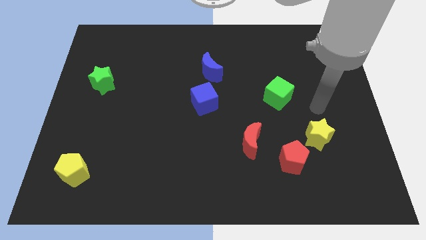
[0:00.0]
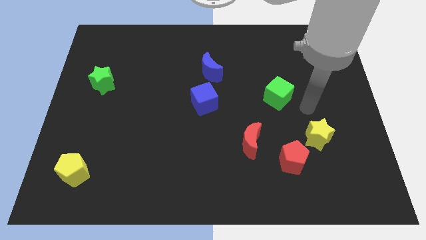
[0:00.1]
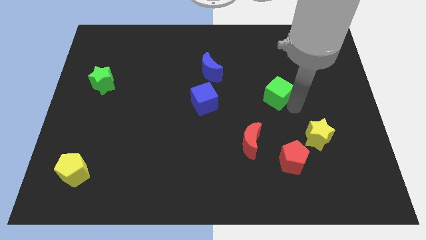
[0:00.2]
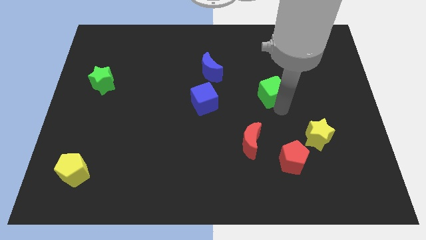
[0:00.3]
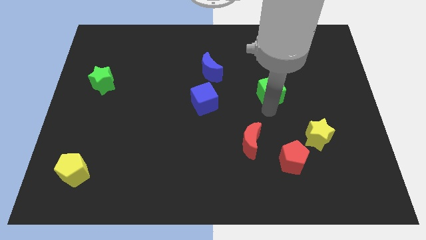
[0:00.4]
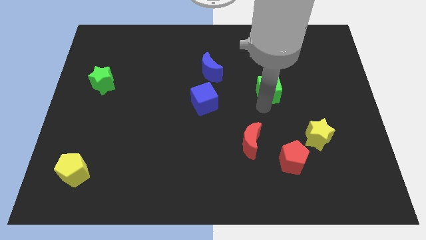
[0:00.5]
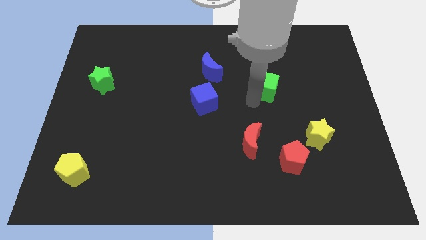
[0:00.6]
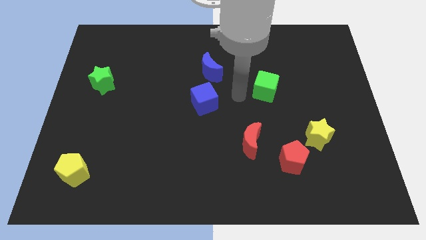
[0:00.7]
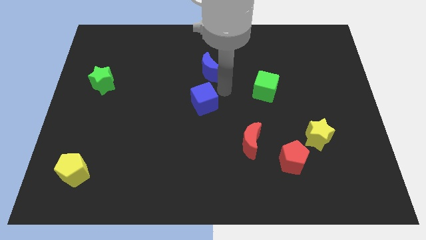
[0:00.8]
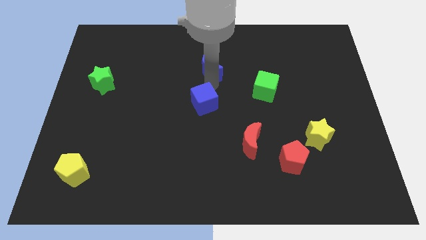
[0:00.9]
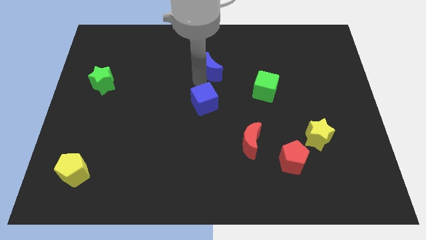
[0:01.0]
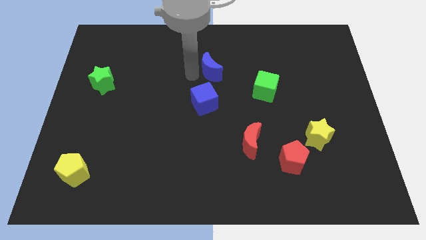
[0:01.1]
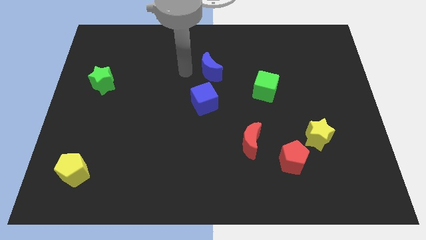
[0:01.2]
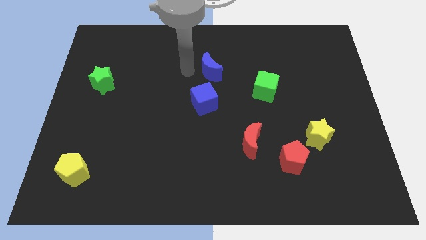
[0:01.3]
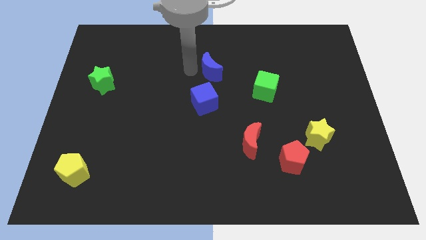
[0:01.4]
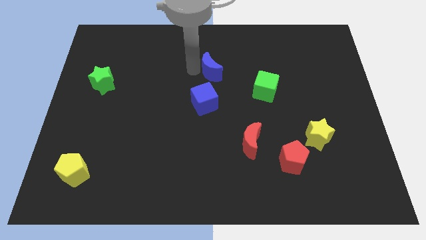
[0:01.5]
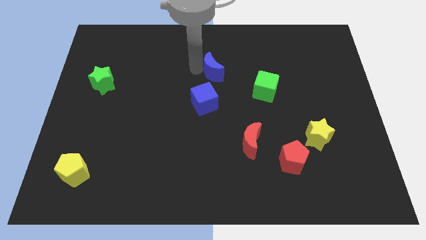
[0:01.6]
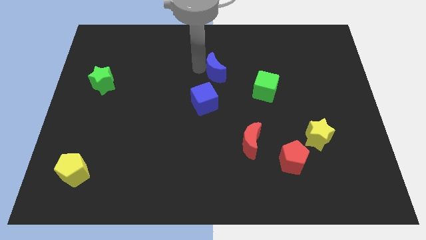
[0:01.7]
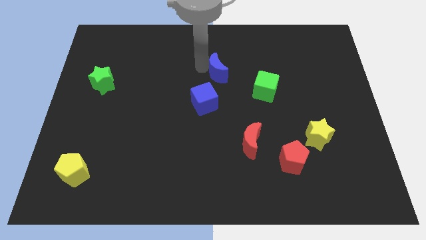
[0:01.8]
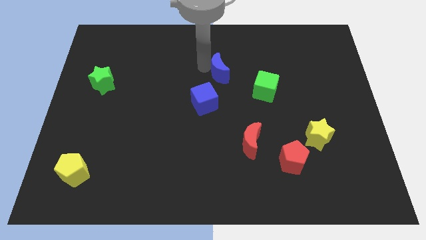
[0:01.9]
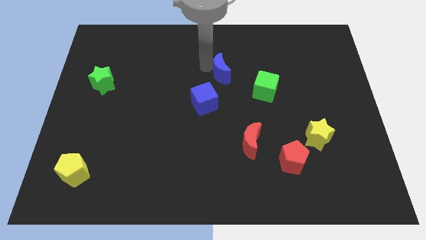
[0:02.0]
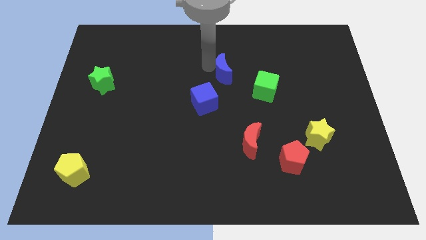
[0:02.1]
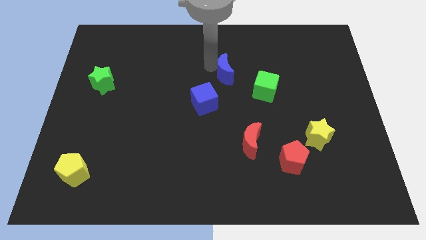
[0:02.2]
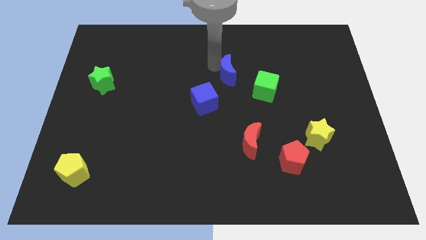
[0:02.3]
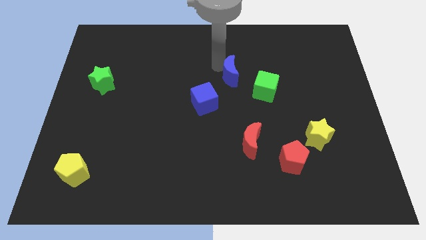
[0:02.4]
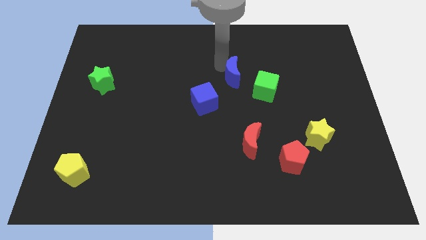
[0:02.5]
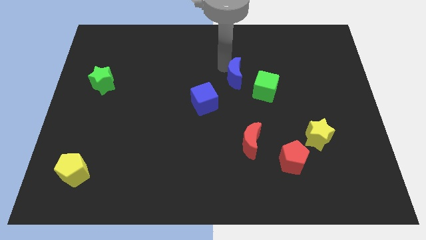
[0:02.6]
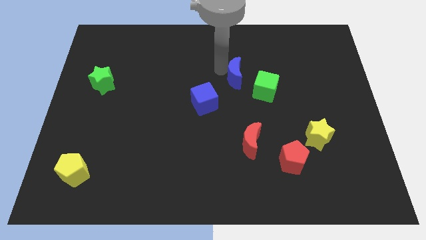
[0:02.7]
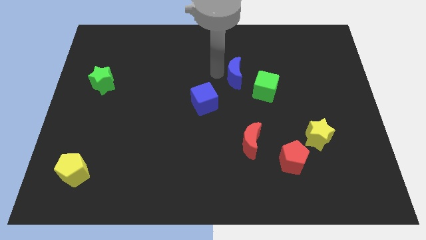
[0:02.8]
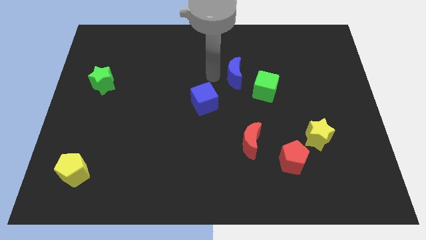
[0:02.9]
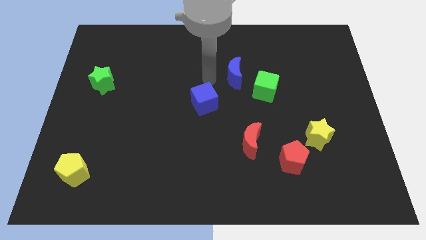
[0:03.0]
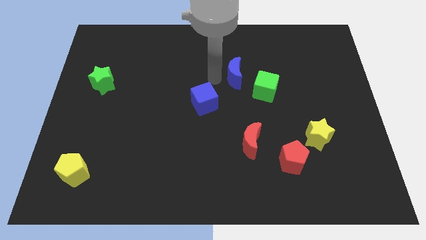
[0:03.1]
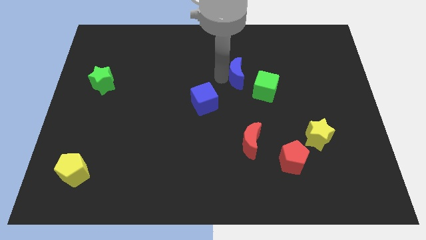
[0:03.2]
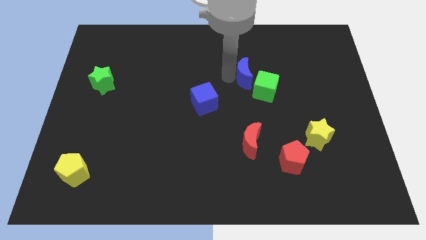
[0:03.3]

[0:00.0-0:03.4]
slightly move the blue moon to the right

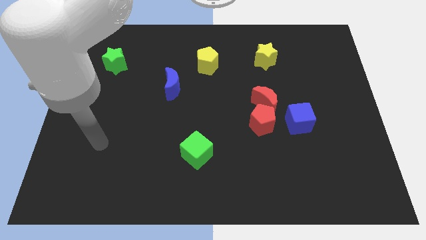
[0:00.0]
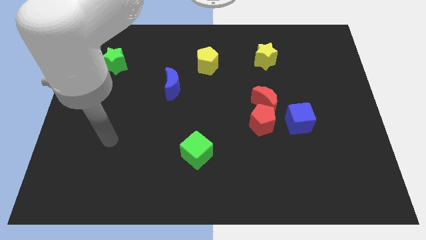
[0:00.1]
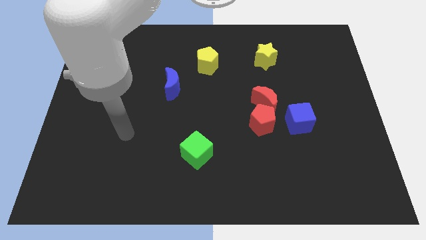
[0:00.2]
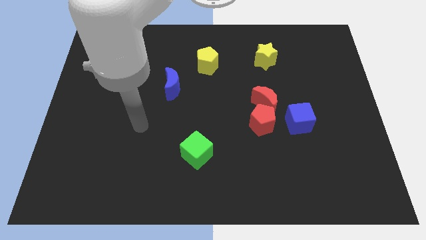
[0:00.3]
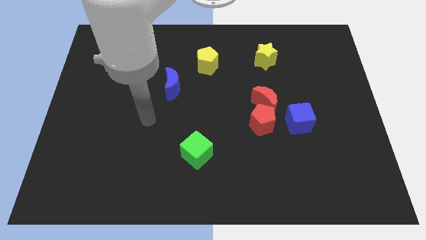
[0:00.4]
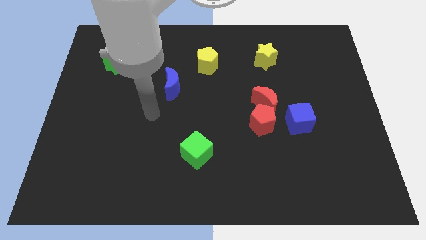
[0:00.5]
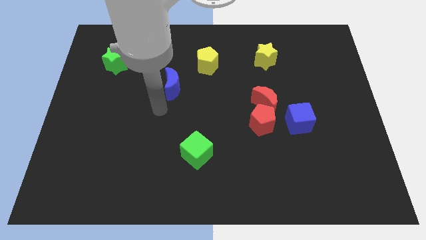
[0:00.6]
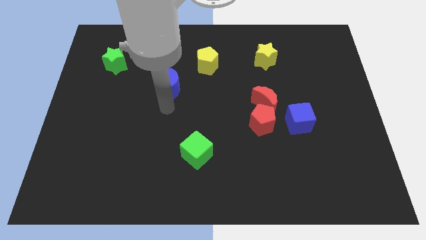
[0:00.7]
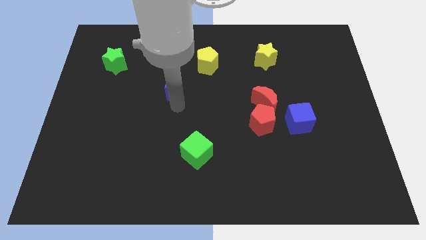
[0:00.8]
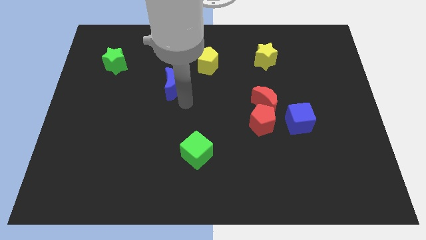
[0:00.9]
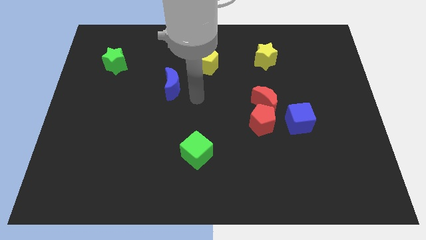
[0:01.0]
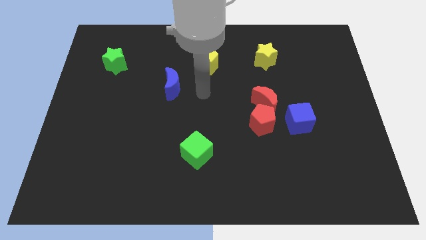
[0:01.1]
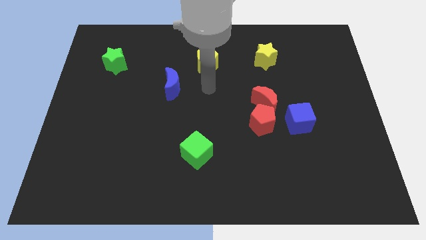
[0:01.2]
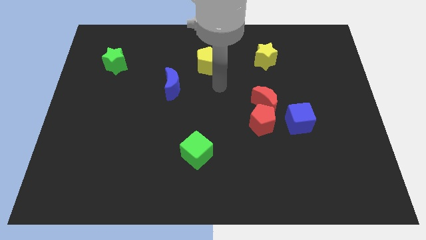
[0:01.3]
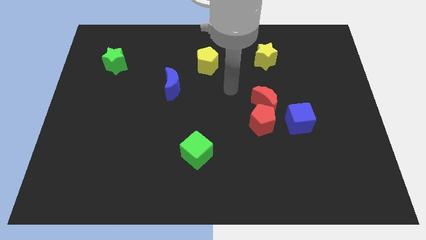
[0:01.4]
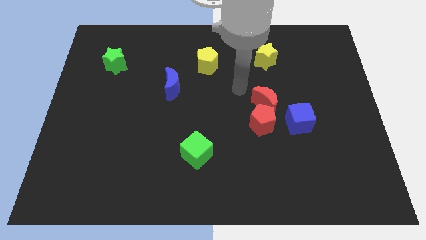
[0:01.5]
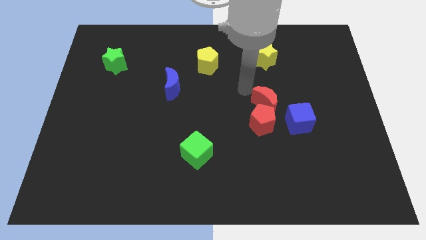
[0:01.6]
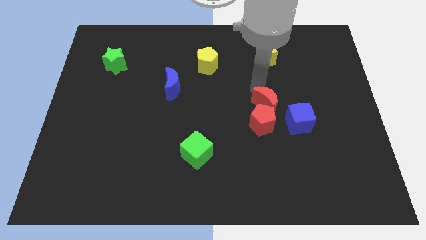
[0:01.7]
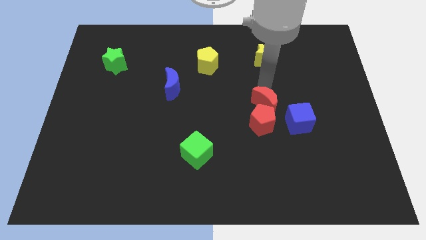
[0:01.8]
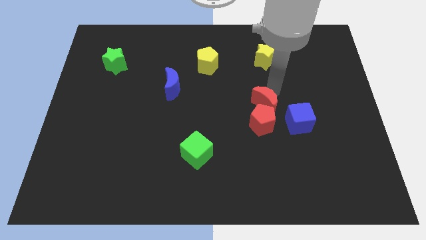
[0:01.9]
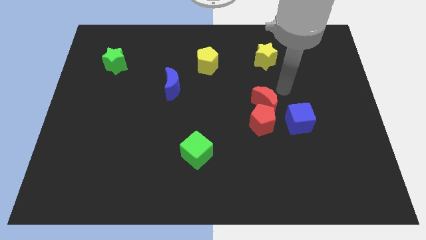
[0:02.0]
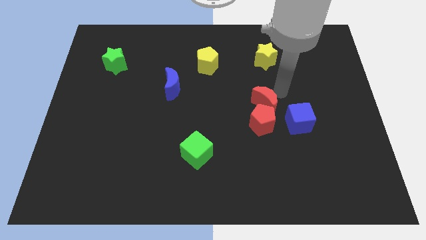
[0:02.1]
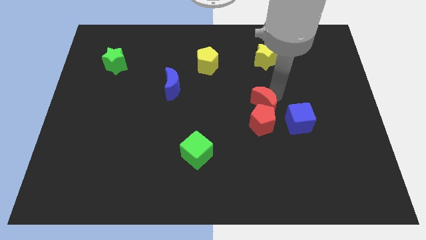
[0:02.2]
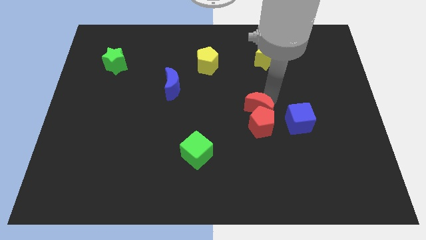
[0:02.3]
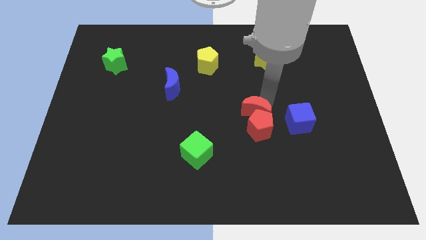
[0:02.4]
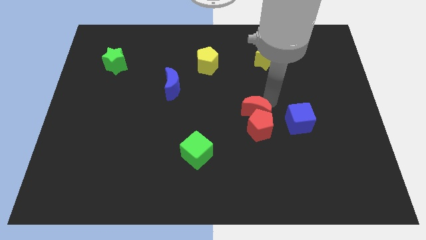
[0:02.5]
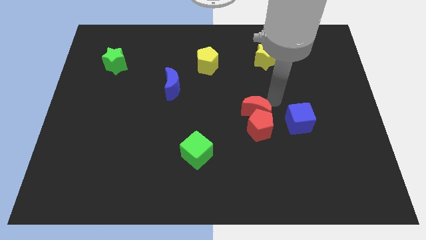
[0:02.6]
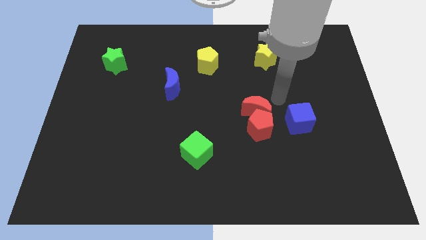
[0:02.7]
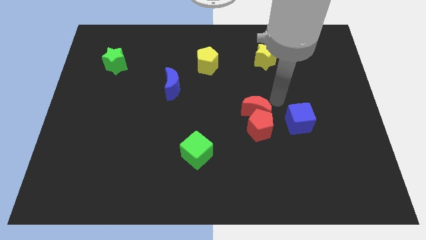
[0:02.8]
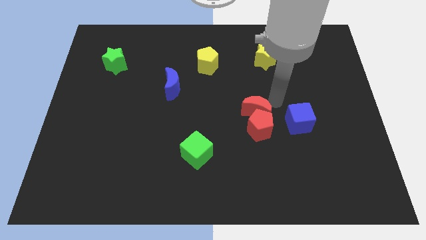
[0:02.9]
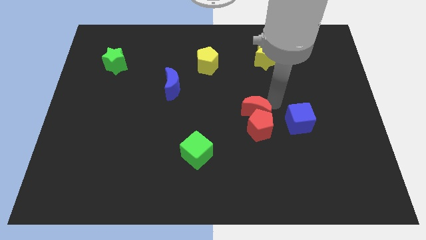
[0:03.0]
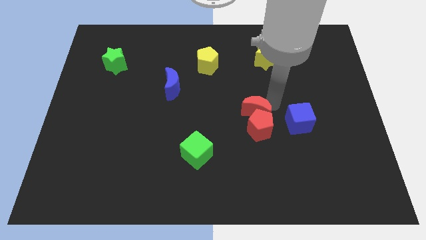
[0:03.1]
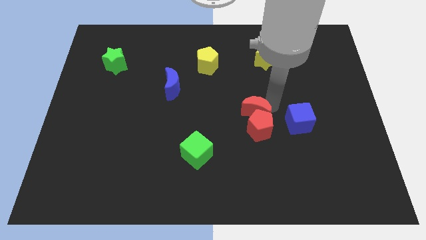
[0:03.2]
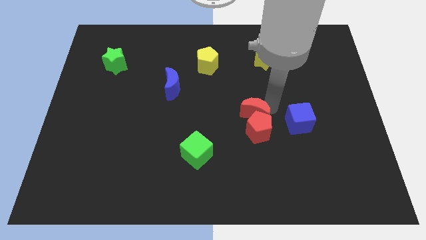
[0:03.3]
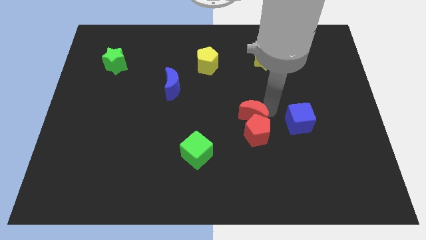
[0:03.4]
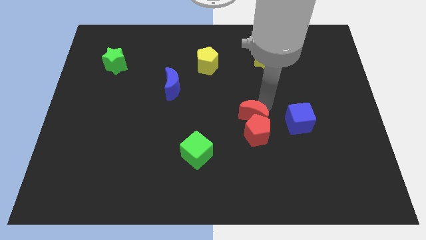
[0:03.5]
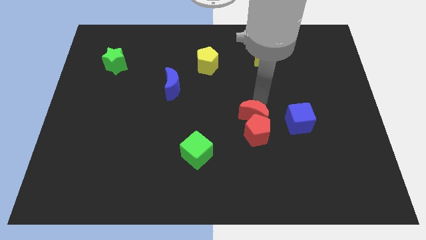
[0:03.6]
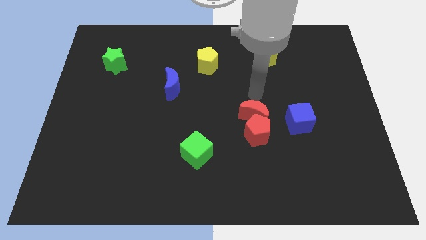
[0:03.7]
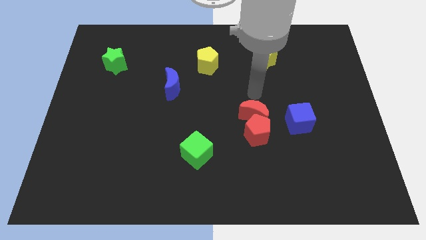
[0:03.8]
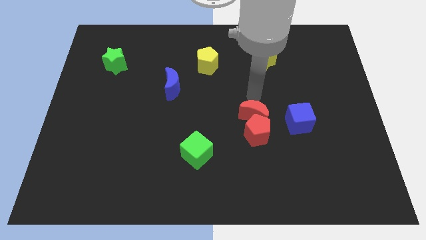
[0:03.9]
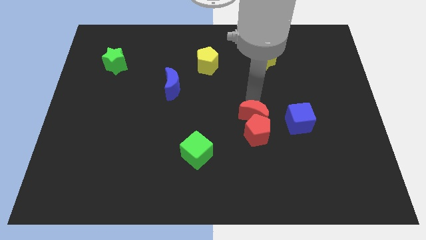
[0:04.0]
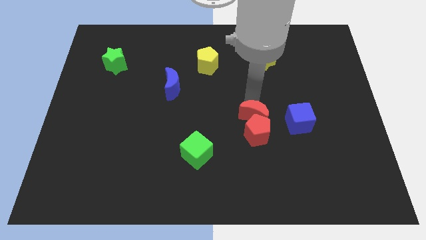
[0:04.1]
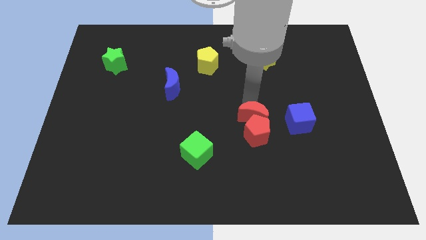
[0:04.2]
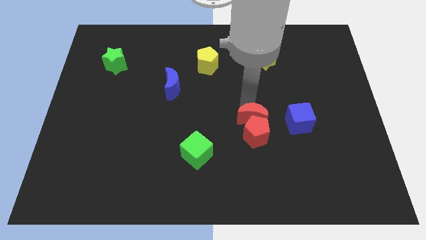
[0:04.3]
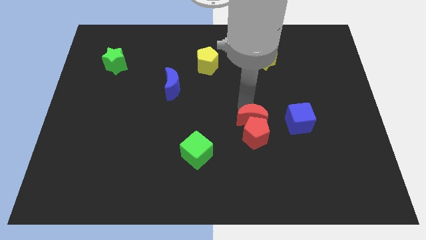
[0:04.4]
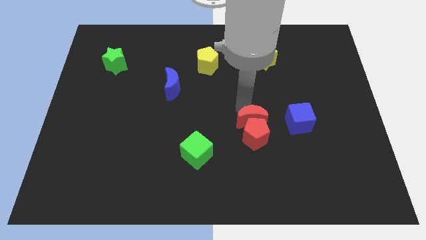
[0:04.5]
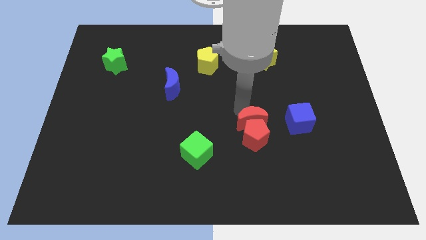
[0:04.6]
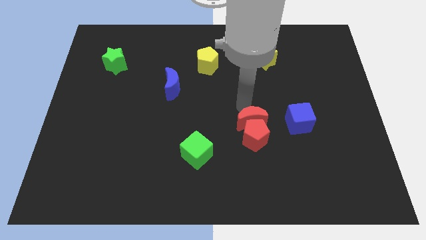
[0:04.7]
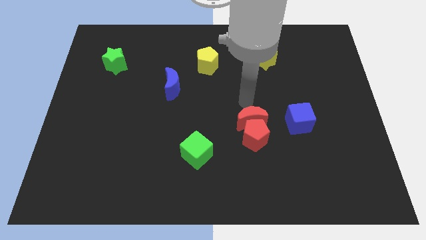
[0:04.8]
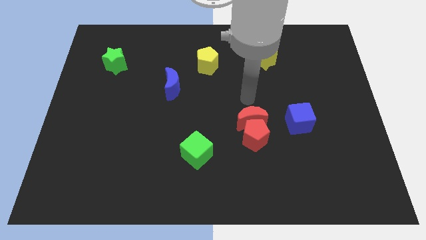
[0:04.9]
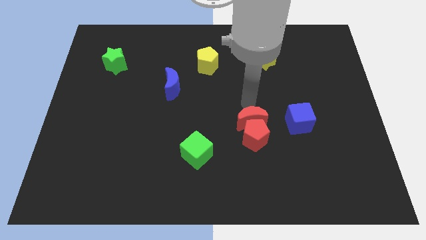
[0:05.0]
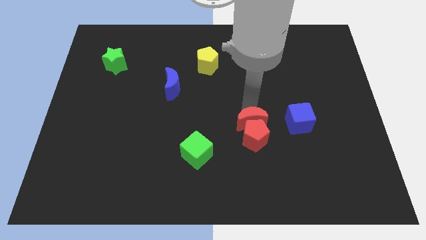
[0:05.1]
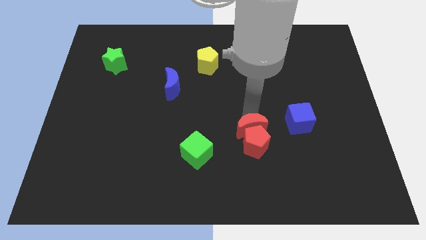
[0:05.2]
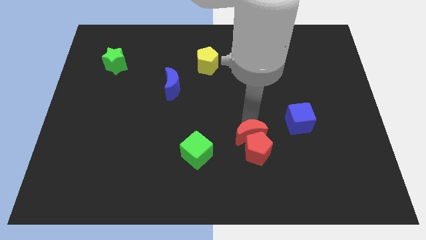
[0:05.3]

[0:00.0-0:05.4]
slightly move the red moon down

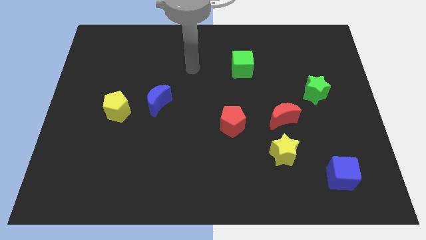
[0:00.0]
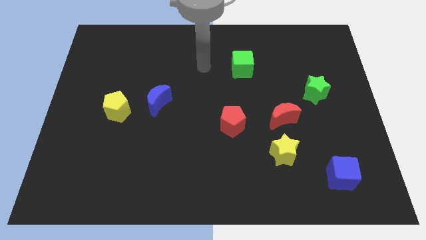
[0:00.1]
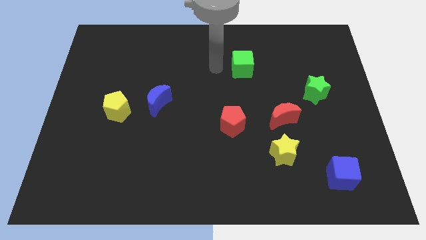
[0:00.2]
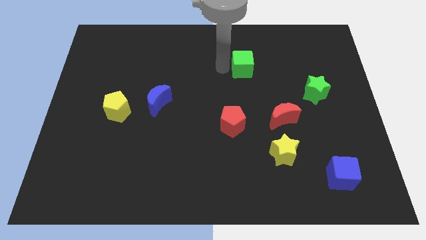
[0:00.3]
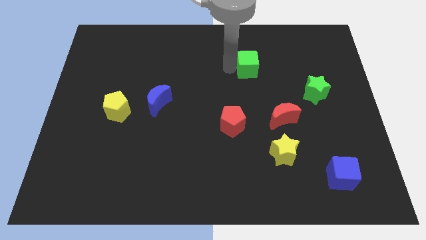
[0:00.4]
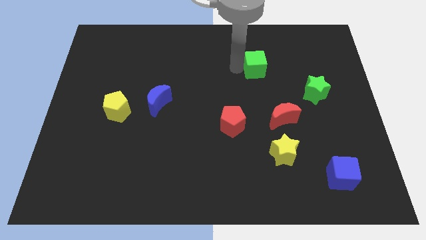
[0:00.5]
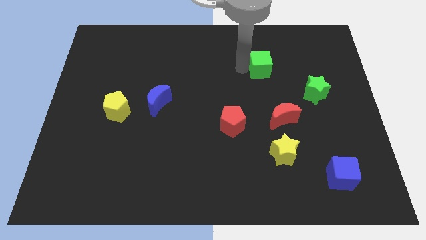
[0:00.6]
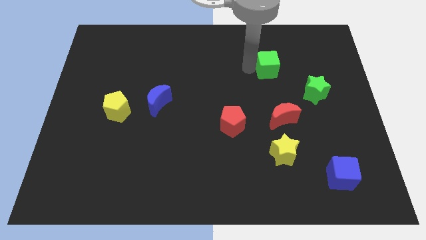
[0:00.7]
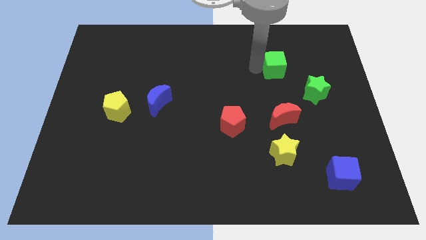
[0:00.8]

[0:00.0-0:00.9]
push the green cube right somewhat
